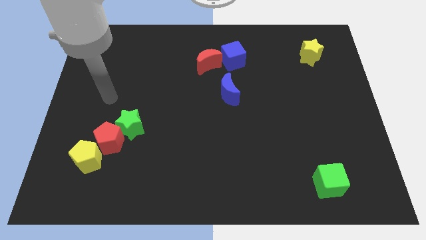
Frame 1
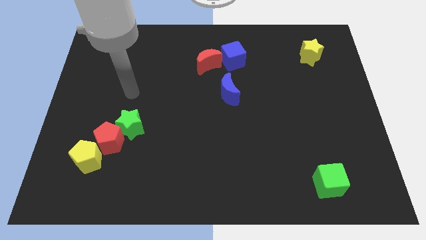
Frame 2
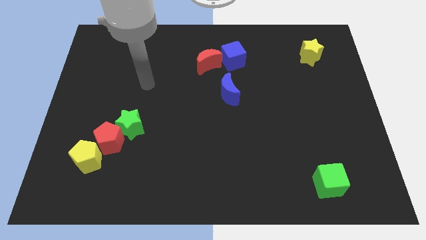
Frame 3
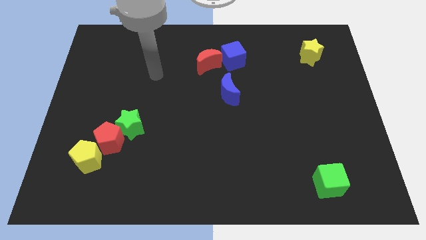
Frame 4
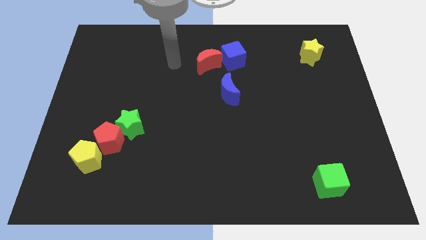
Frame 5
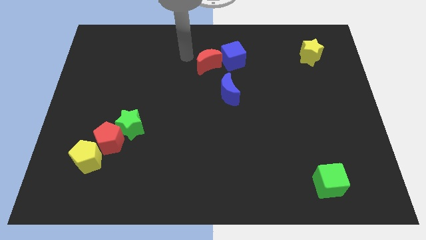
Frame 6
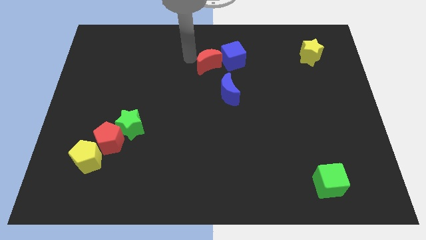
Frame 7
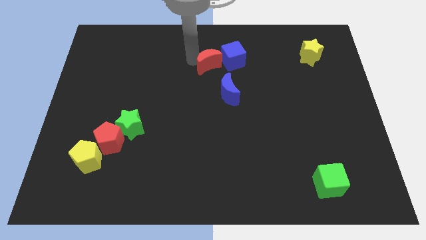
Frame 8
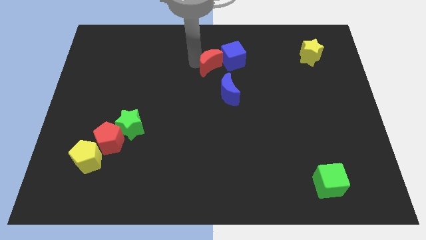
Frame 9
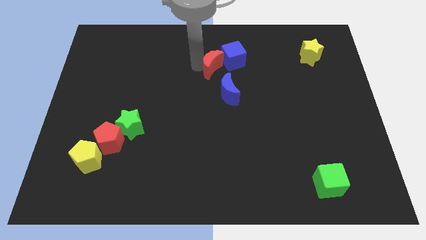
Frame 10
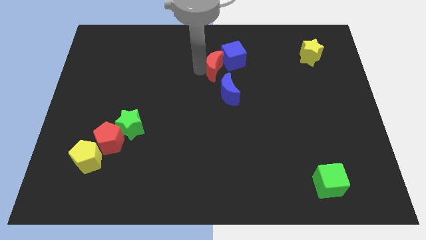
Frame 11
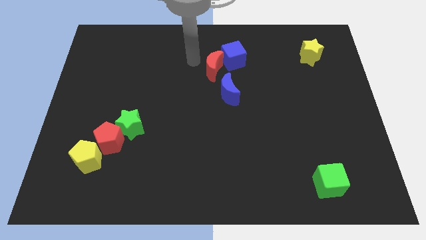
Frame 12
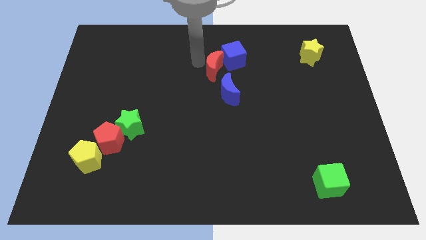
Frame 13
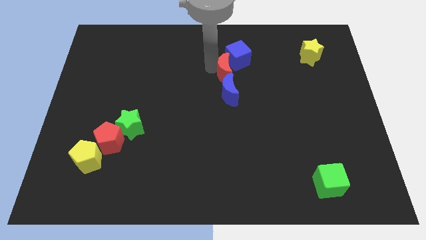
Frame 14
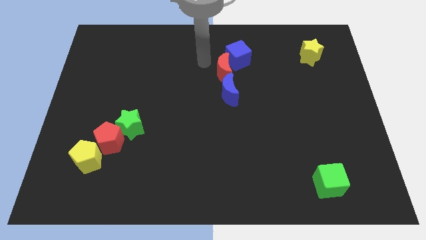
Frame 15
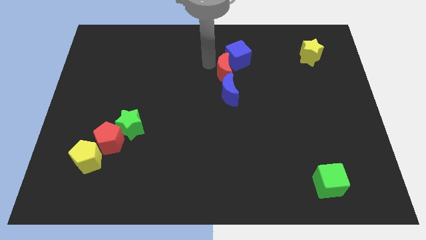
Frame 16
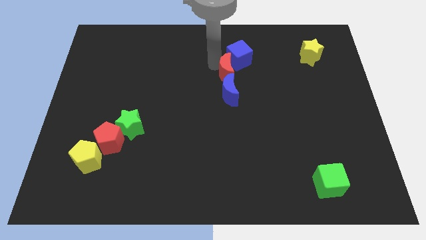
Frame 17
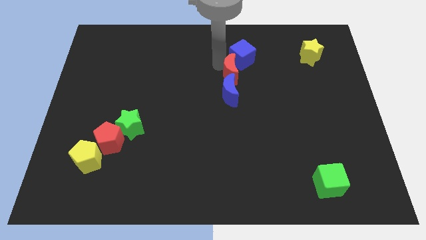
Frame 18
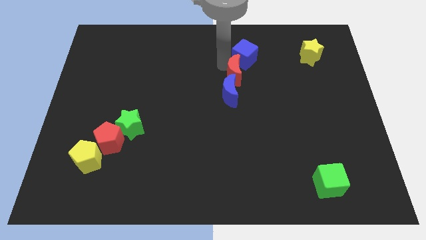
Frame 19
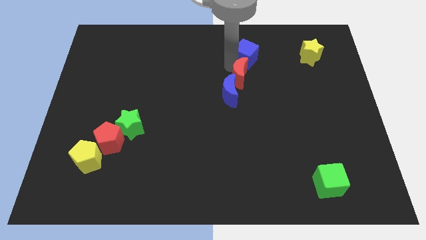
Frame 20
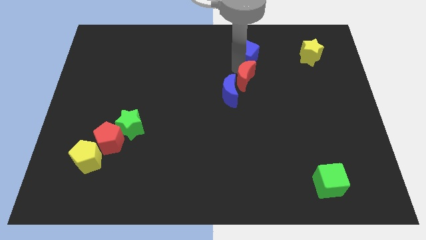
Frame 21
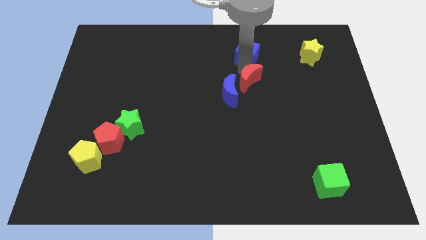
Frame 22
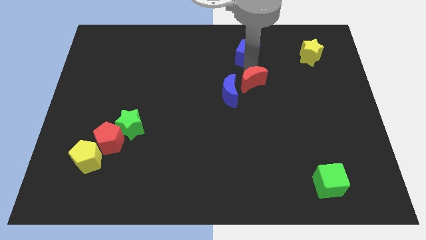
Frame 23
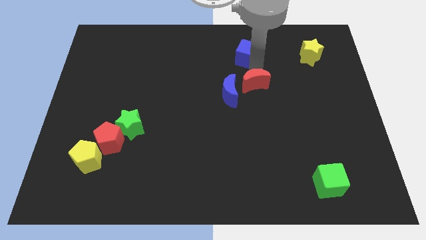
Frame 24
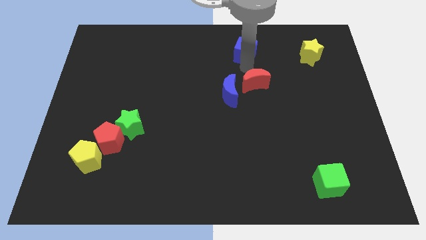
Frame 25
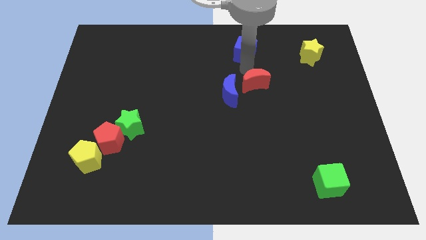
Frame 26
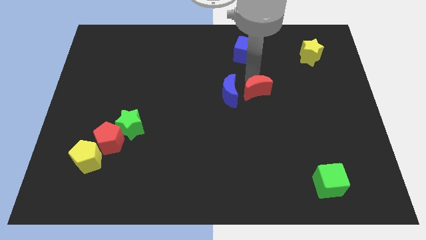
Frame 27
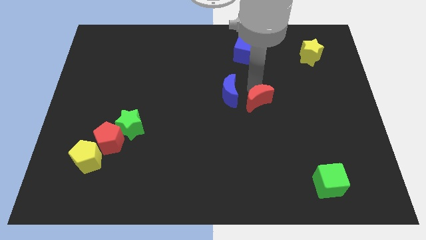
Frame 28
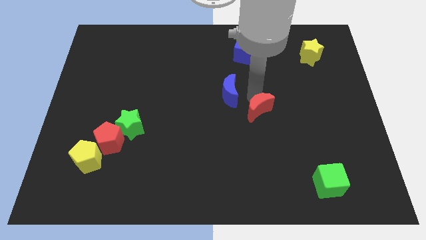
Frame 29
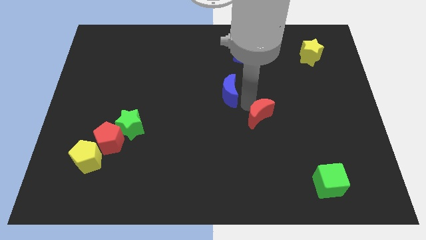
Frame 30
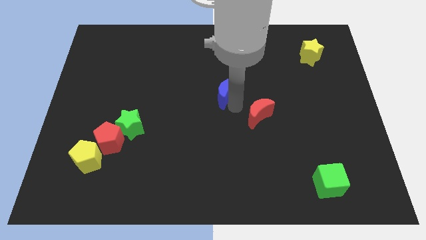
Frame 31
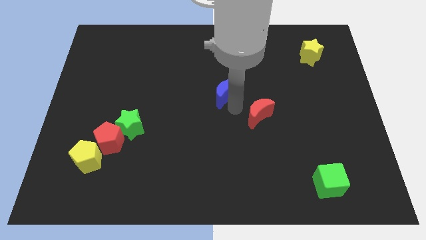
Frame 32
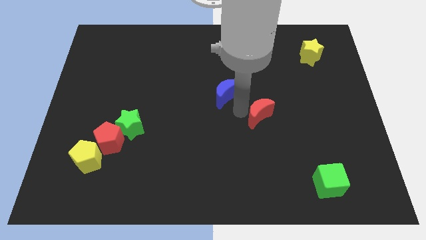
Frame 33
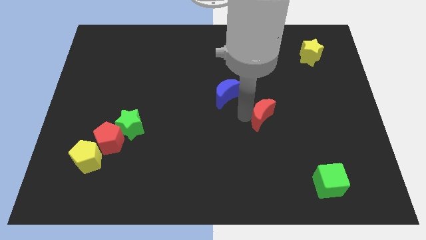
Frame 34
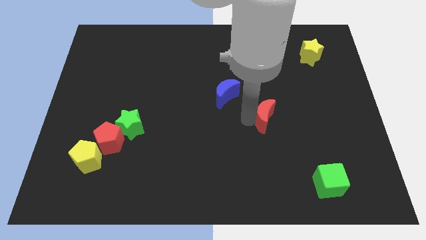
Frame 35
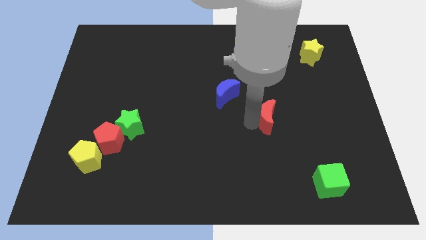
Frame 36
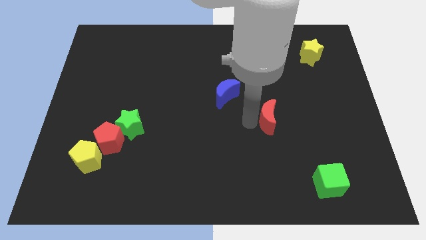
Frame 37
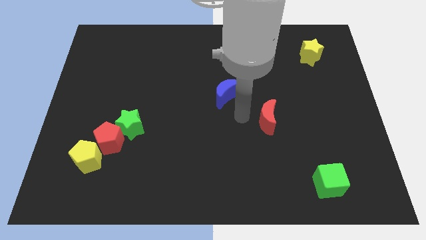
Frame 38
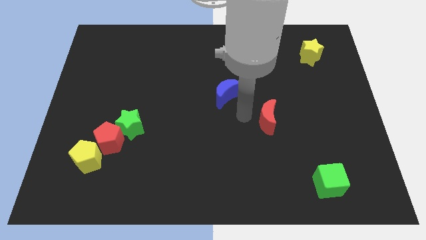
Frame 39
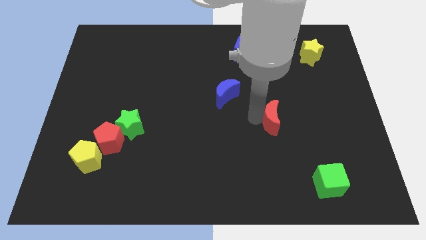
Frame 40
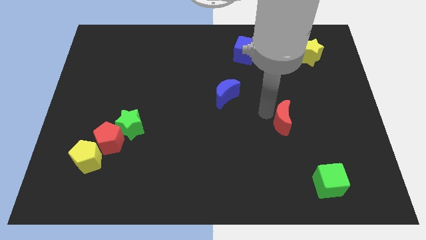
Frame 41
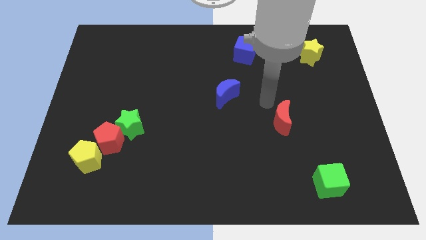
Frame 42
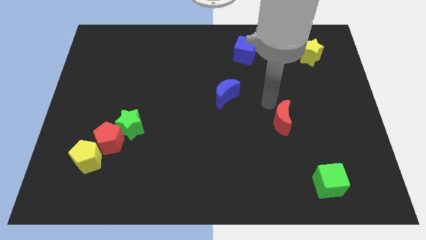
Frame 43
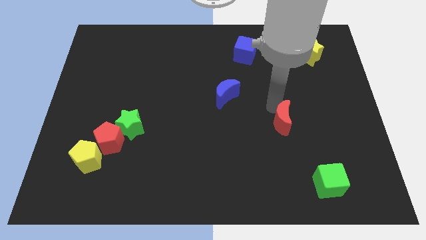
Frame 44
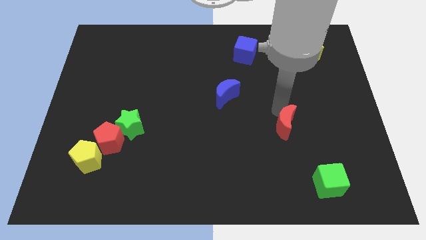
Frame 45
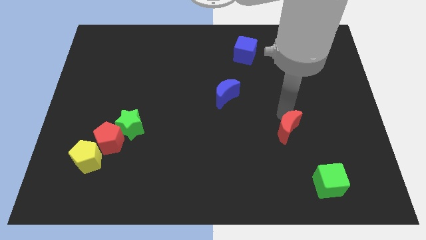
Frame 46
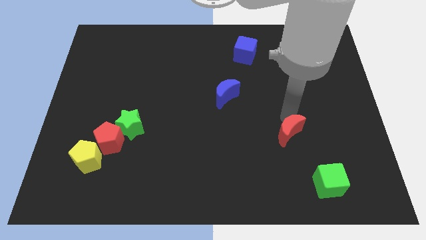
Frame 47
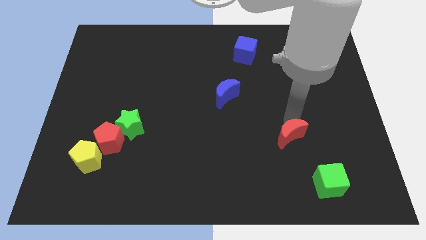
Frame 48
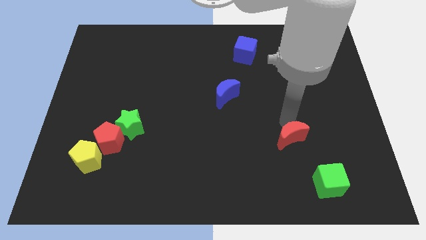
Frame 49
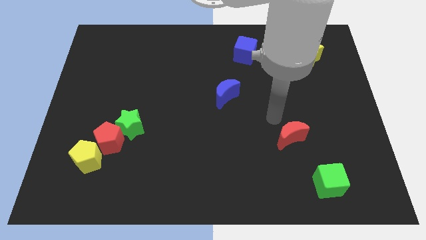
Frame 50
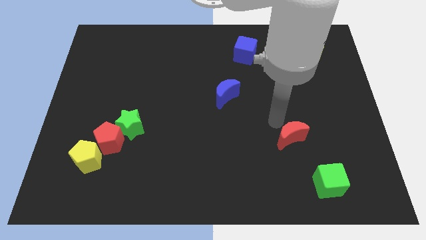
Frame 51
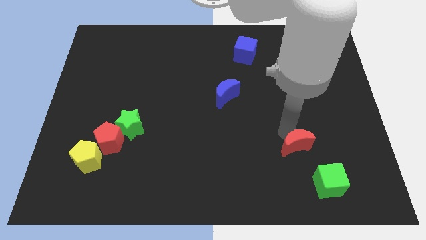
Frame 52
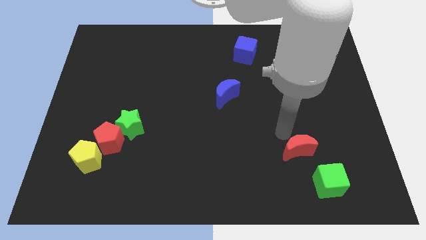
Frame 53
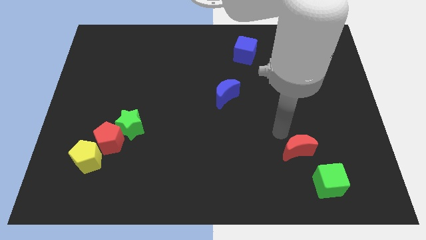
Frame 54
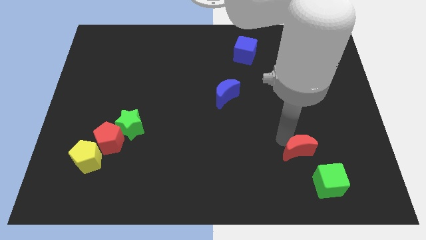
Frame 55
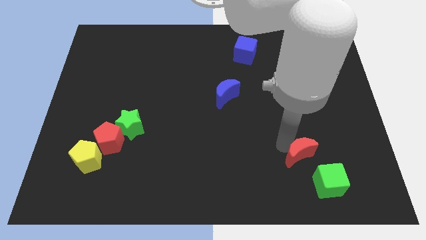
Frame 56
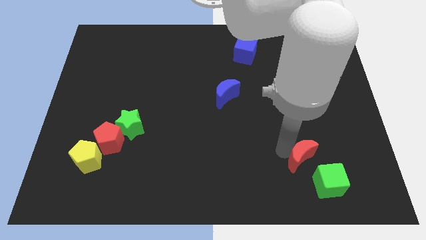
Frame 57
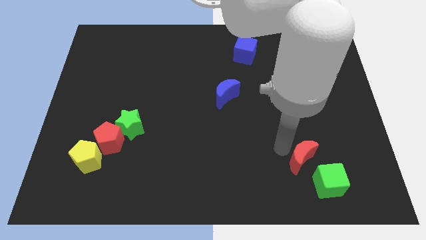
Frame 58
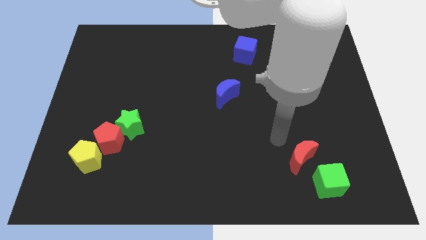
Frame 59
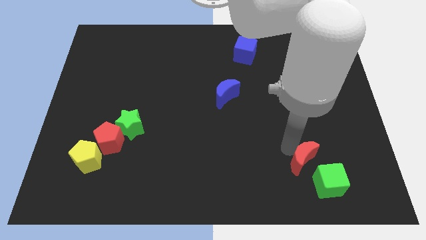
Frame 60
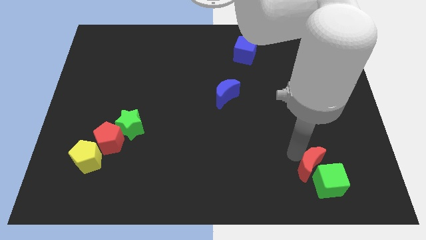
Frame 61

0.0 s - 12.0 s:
slide the red moon close to the green cube
